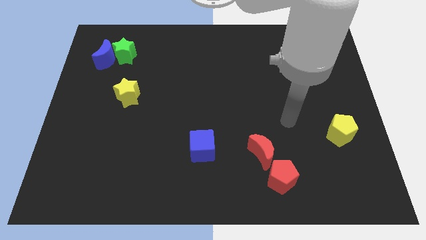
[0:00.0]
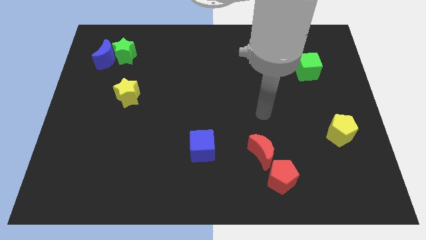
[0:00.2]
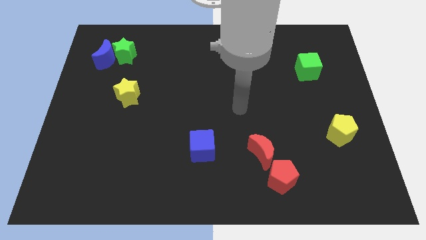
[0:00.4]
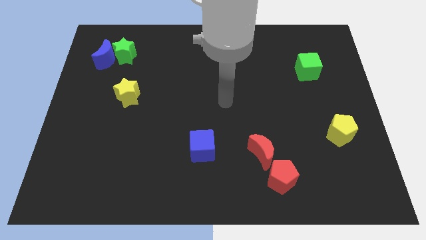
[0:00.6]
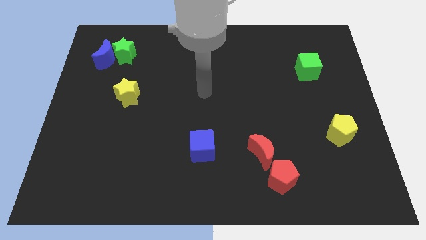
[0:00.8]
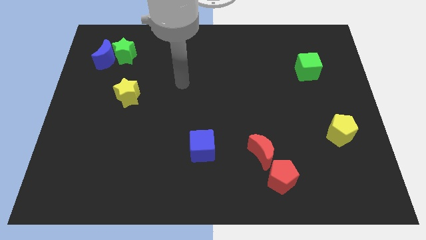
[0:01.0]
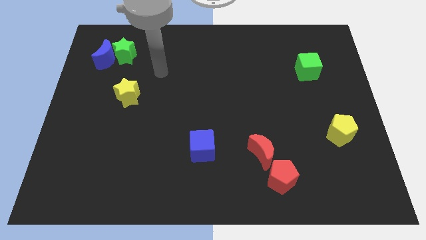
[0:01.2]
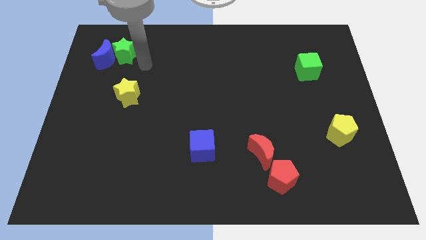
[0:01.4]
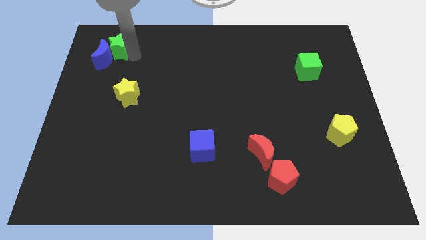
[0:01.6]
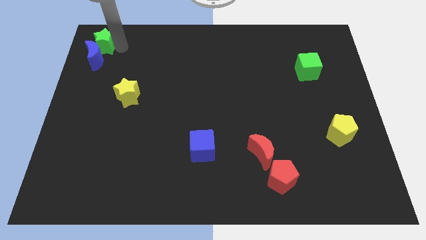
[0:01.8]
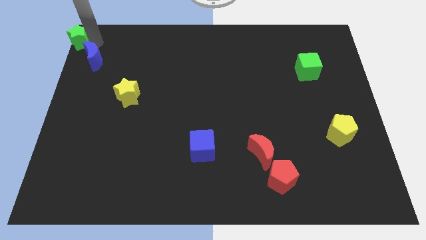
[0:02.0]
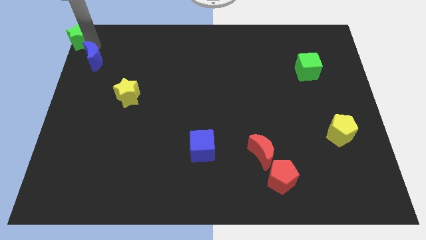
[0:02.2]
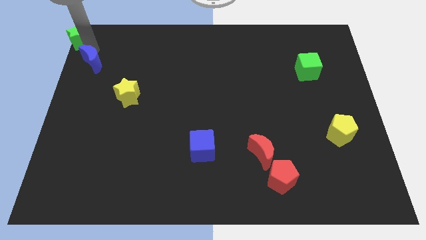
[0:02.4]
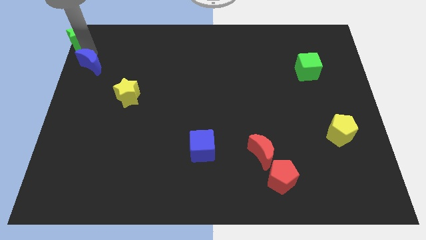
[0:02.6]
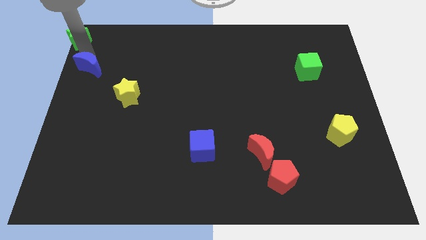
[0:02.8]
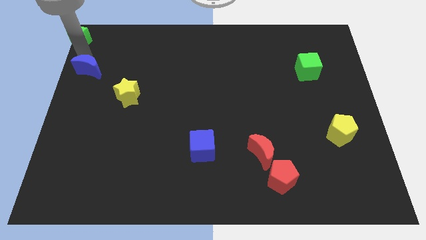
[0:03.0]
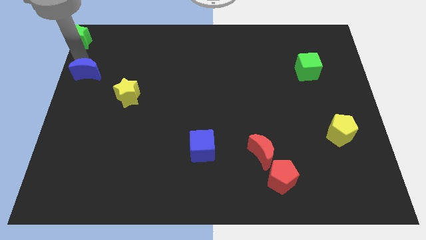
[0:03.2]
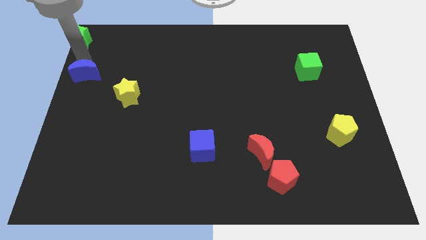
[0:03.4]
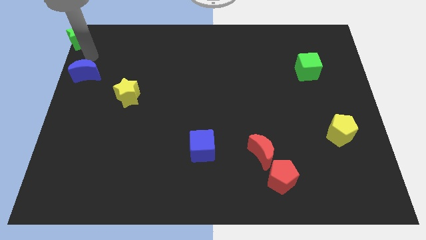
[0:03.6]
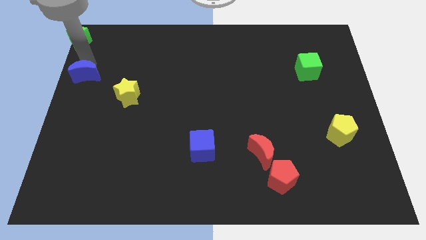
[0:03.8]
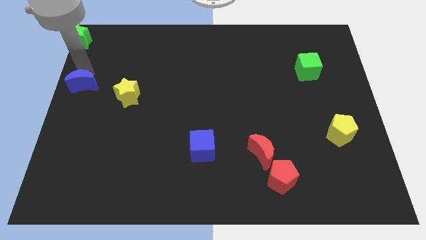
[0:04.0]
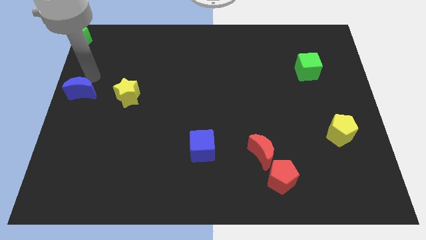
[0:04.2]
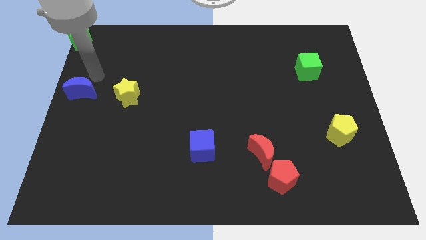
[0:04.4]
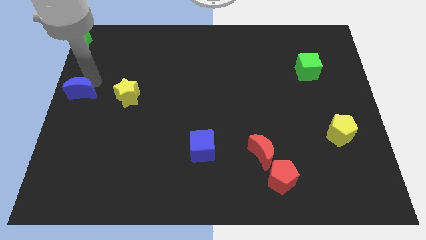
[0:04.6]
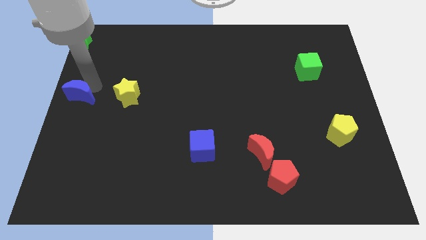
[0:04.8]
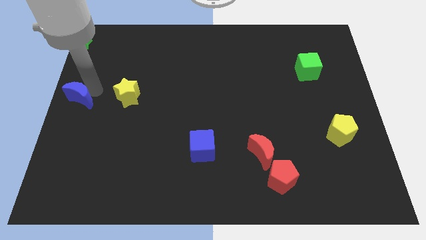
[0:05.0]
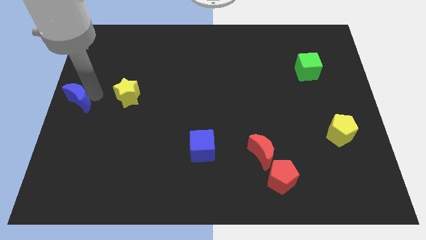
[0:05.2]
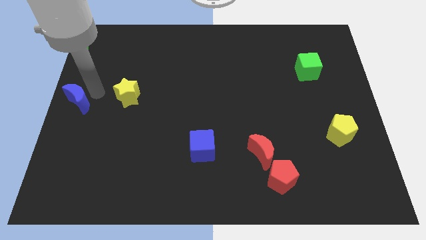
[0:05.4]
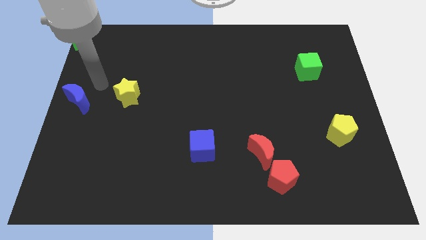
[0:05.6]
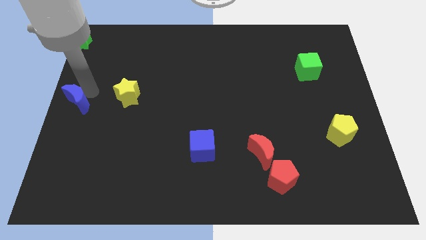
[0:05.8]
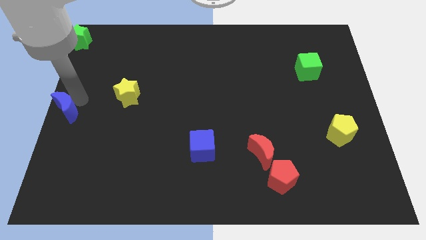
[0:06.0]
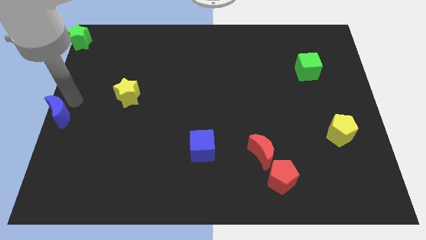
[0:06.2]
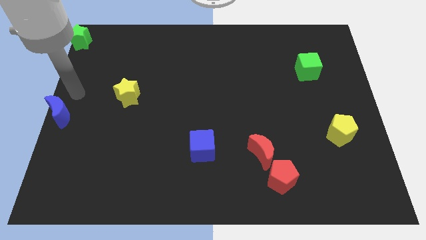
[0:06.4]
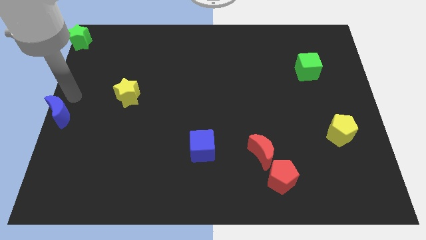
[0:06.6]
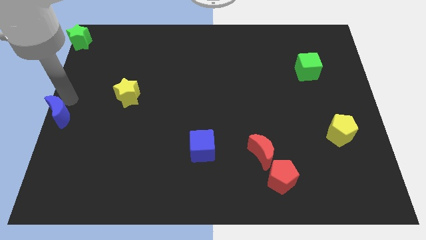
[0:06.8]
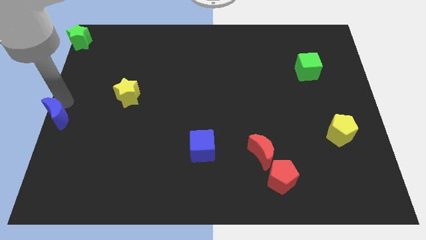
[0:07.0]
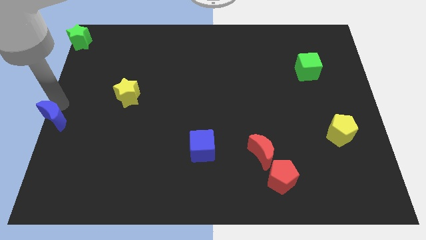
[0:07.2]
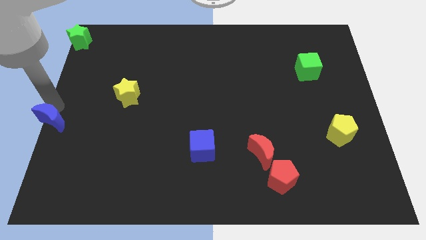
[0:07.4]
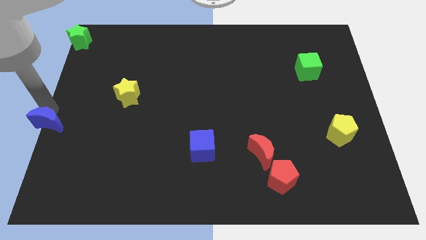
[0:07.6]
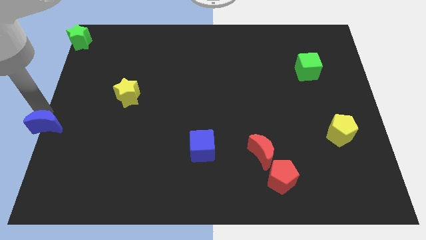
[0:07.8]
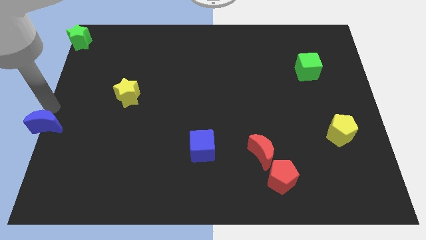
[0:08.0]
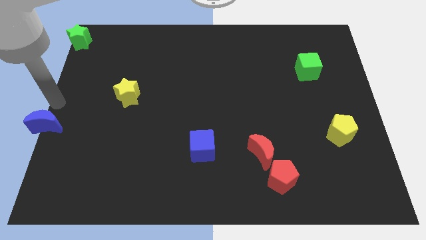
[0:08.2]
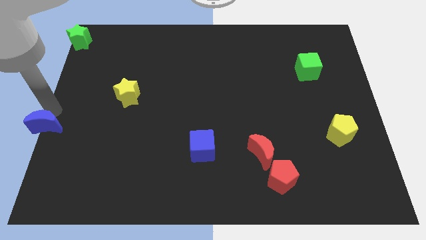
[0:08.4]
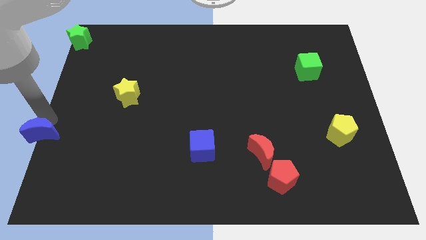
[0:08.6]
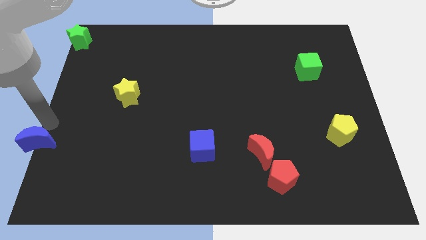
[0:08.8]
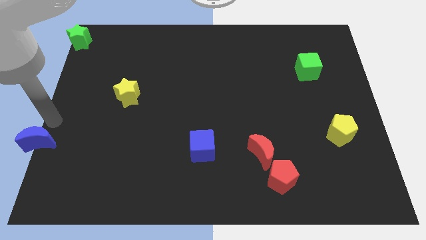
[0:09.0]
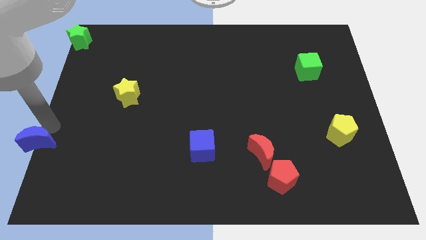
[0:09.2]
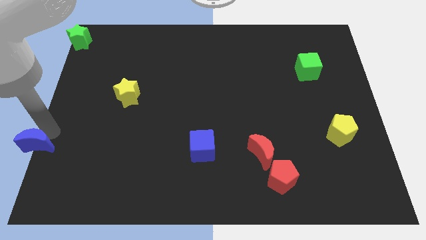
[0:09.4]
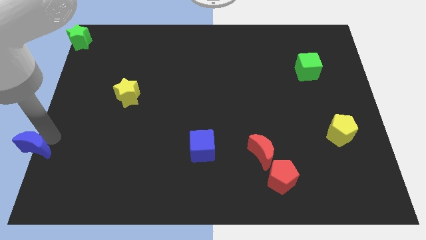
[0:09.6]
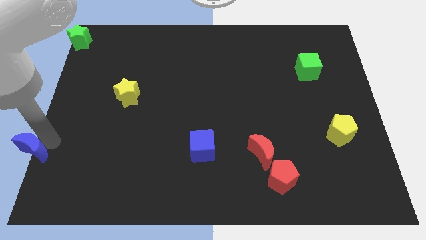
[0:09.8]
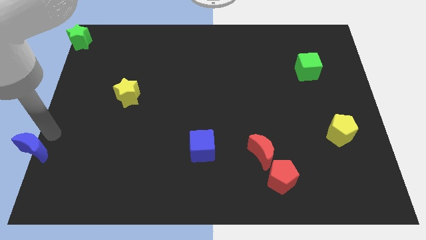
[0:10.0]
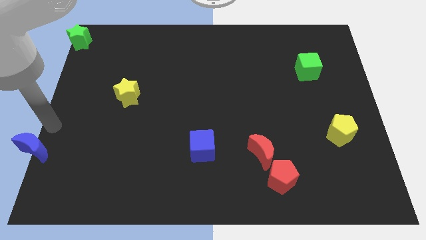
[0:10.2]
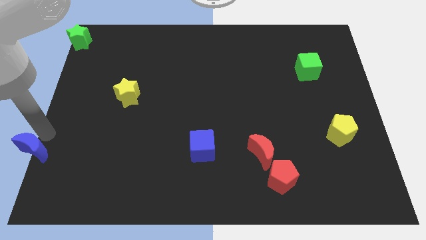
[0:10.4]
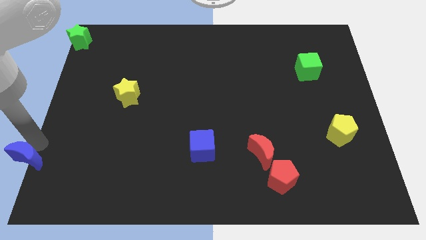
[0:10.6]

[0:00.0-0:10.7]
push the blue moon to the lower left corner

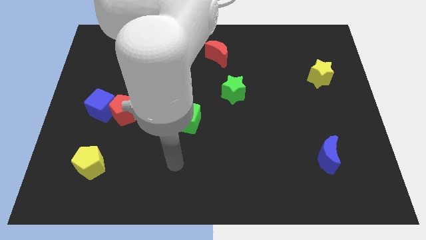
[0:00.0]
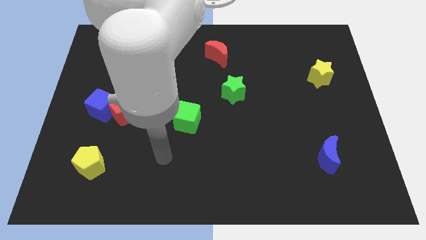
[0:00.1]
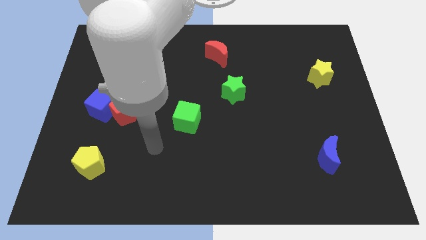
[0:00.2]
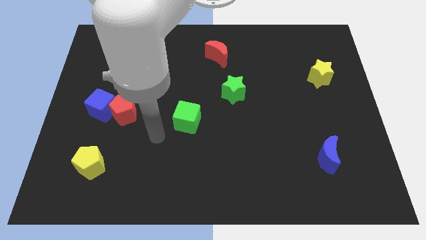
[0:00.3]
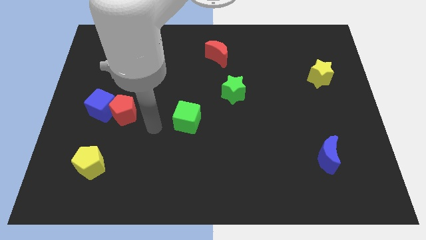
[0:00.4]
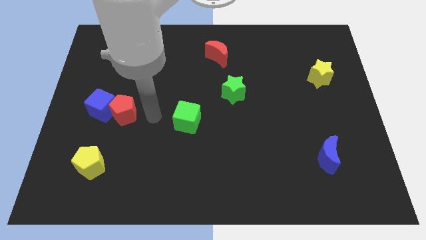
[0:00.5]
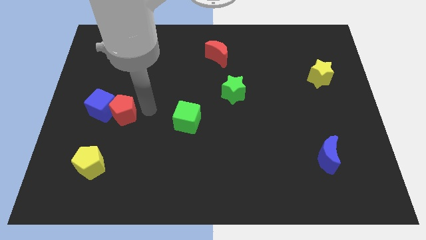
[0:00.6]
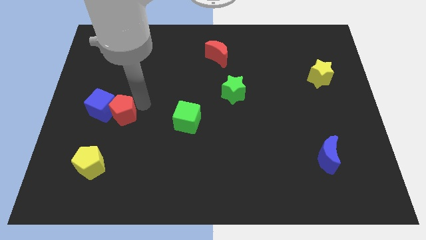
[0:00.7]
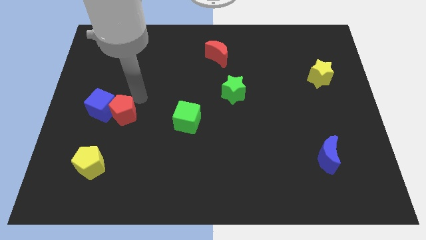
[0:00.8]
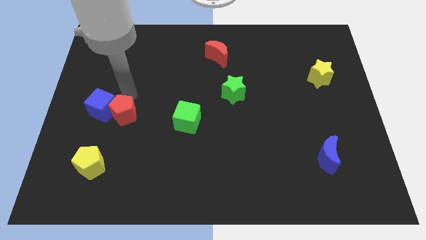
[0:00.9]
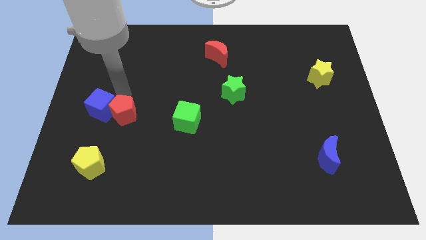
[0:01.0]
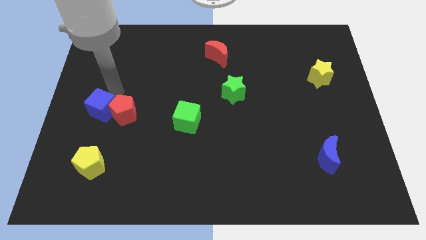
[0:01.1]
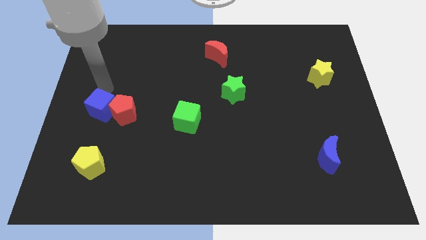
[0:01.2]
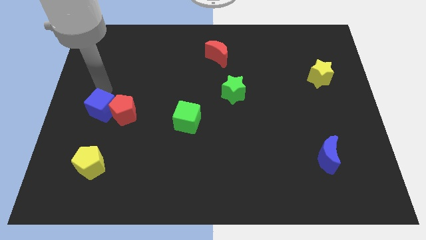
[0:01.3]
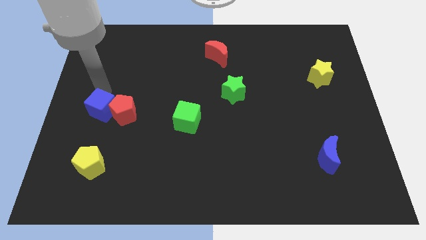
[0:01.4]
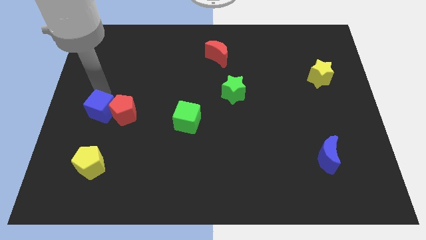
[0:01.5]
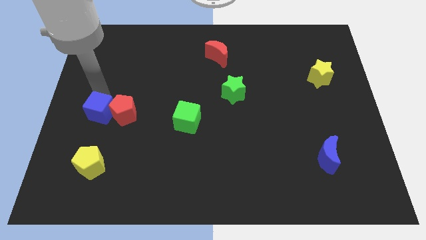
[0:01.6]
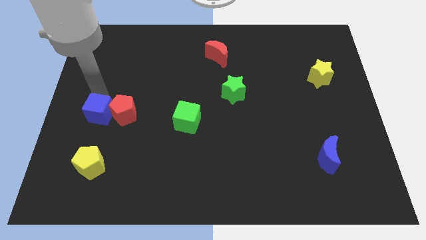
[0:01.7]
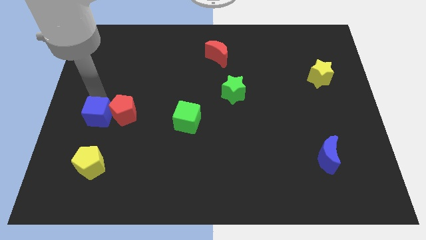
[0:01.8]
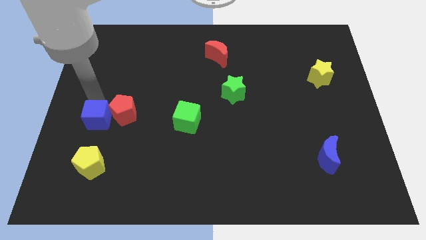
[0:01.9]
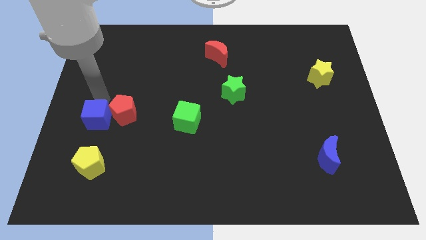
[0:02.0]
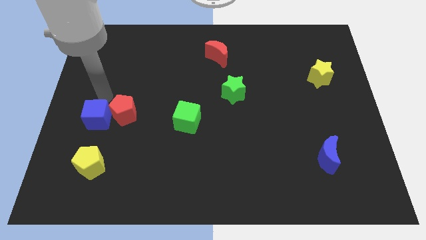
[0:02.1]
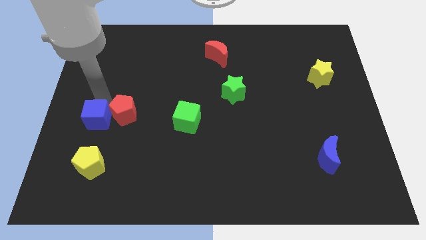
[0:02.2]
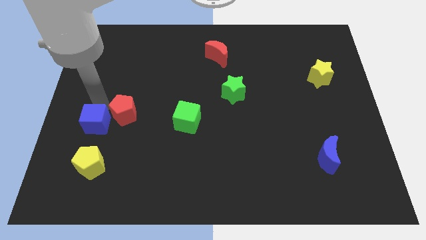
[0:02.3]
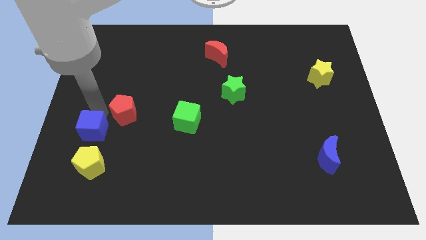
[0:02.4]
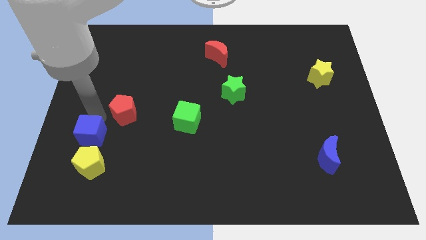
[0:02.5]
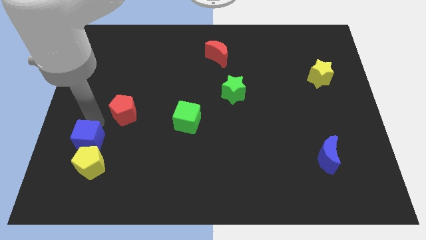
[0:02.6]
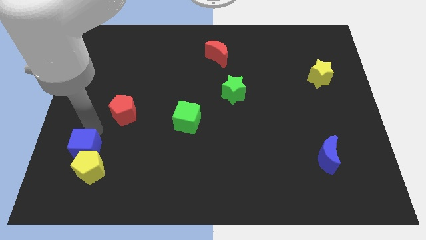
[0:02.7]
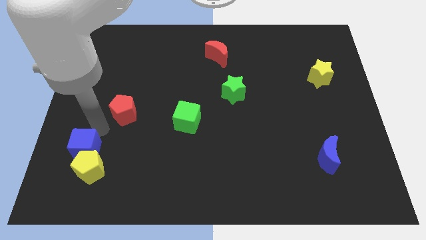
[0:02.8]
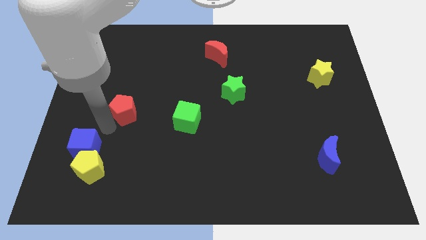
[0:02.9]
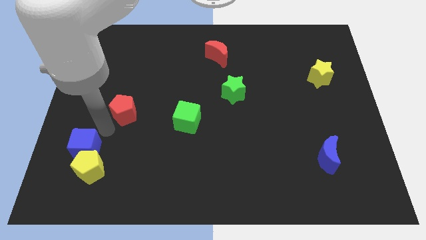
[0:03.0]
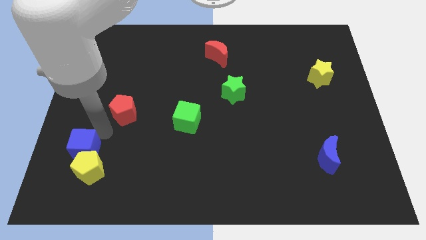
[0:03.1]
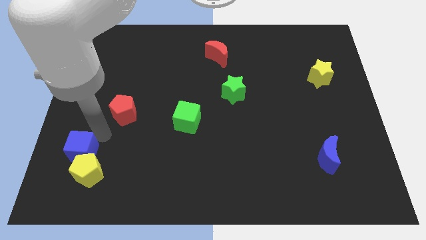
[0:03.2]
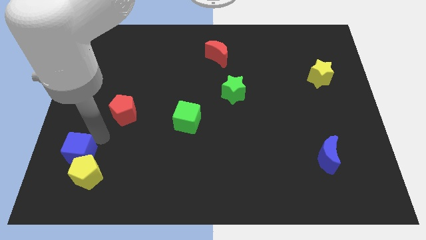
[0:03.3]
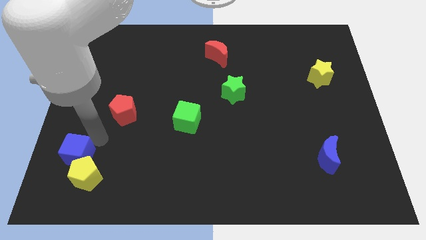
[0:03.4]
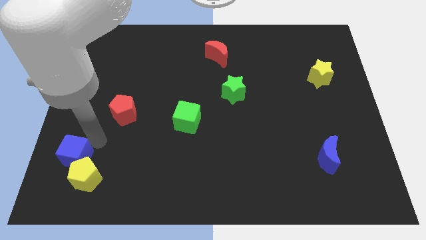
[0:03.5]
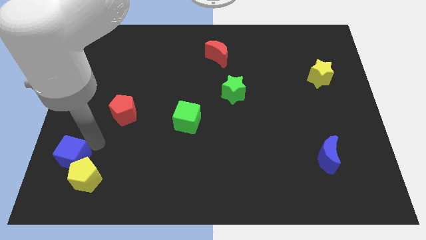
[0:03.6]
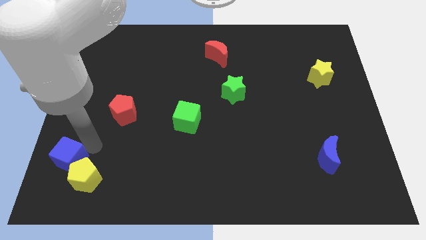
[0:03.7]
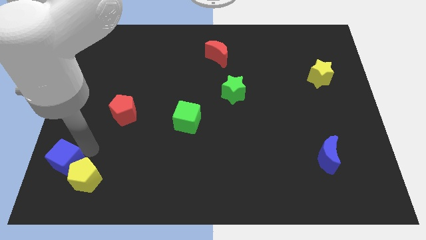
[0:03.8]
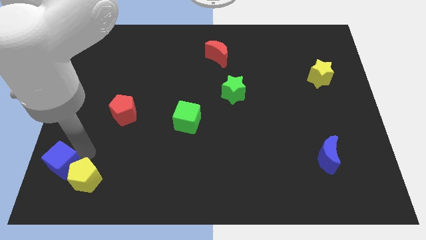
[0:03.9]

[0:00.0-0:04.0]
slide the blue cube to the lower left corner
